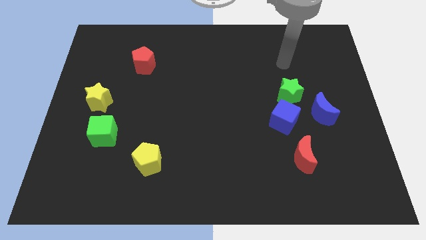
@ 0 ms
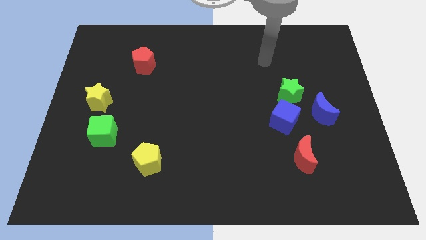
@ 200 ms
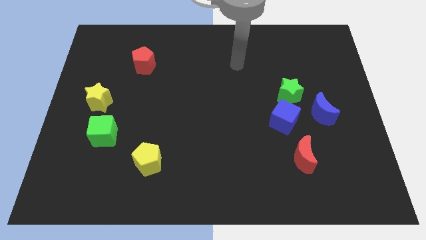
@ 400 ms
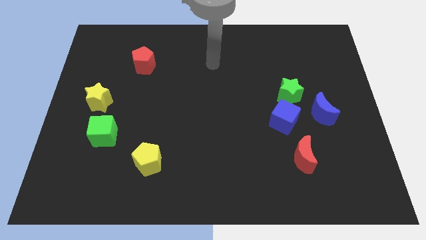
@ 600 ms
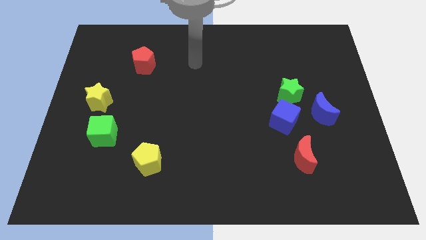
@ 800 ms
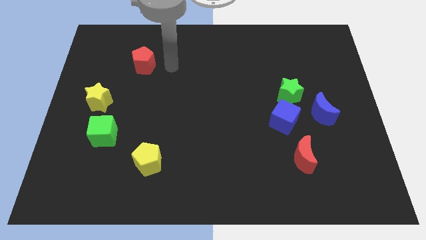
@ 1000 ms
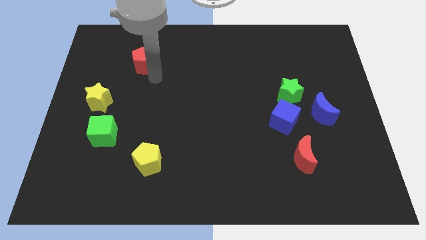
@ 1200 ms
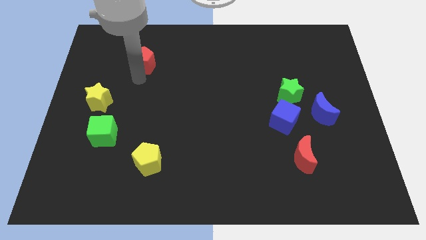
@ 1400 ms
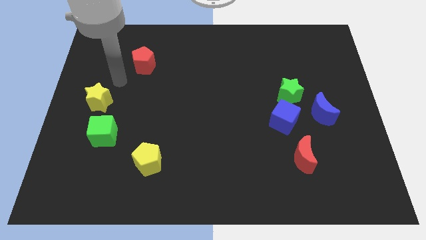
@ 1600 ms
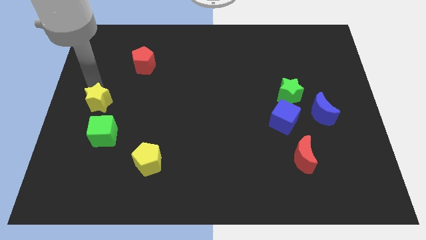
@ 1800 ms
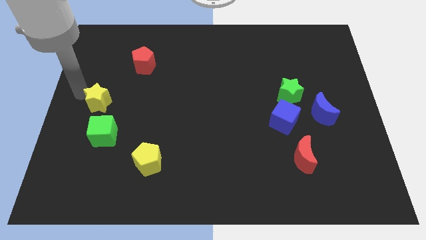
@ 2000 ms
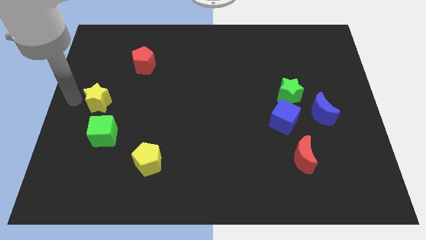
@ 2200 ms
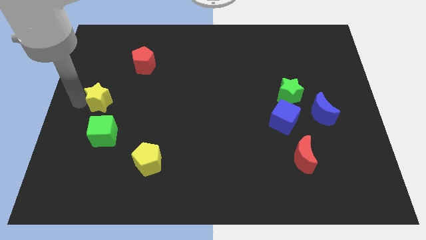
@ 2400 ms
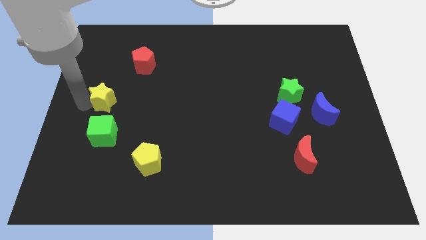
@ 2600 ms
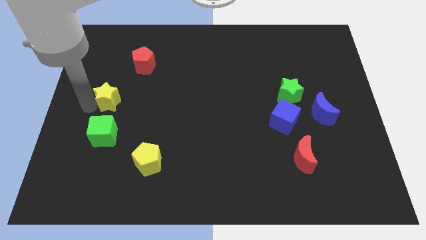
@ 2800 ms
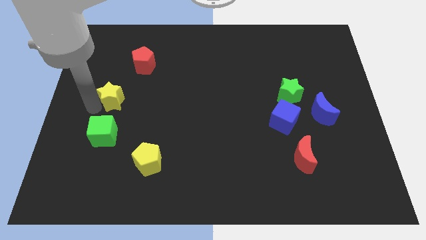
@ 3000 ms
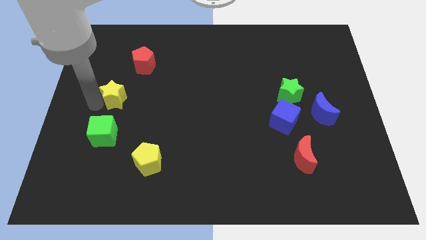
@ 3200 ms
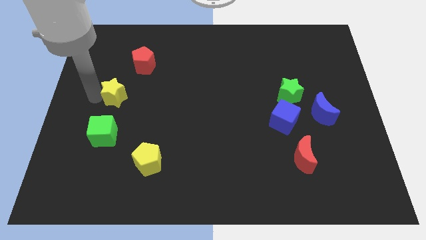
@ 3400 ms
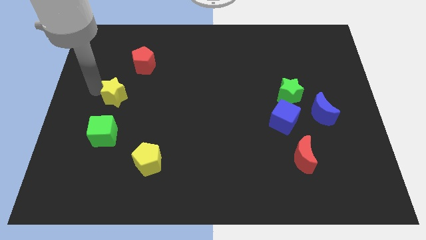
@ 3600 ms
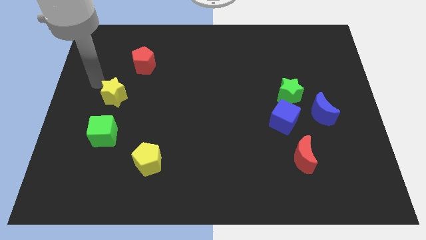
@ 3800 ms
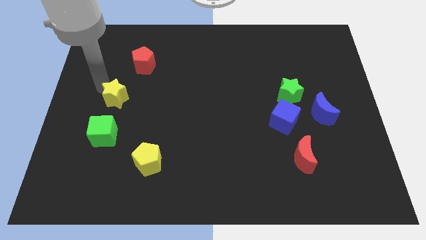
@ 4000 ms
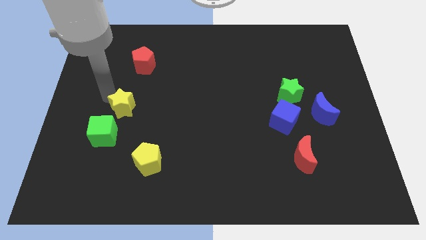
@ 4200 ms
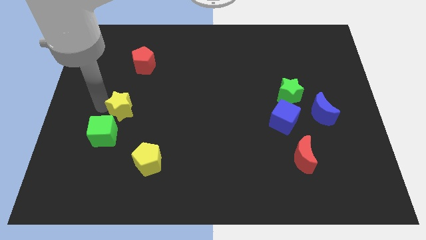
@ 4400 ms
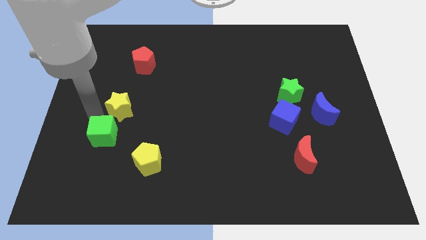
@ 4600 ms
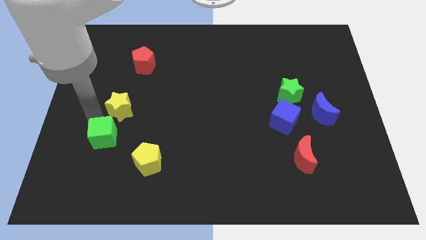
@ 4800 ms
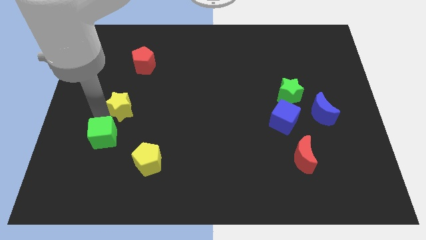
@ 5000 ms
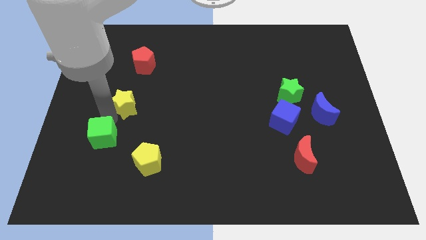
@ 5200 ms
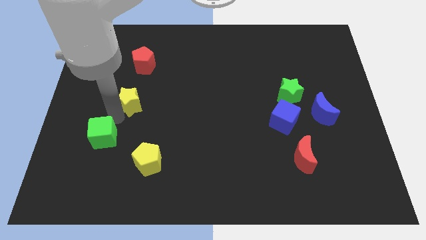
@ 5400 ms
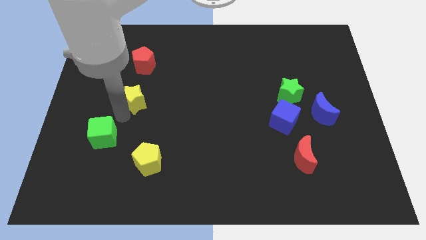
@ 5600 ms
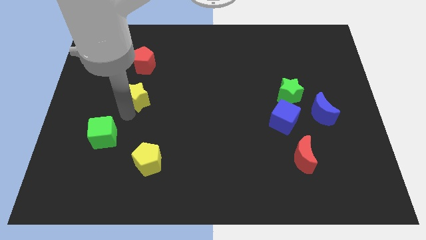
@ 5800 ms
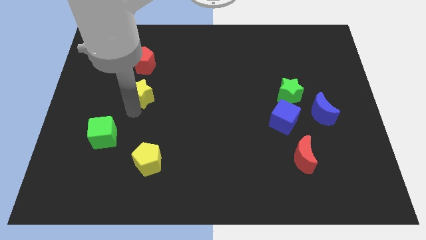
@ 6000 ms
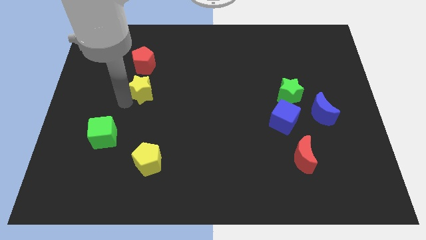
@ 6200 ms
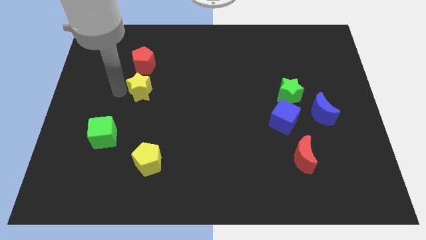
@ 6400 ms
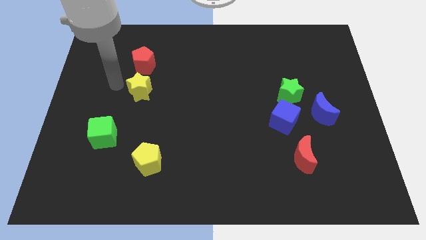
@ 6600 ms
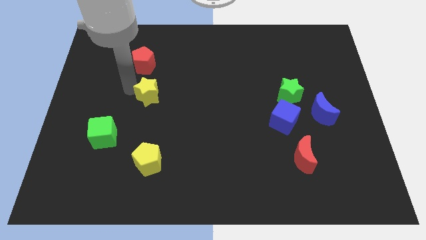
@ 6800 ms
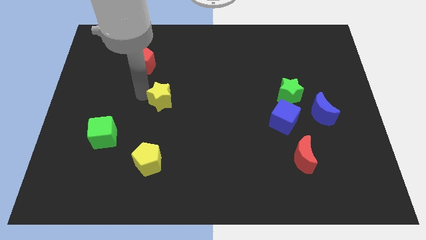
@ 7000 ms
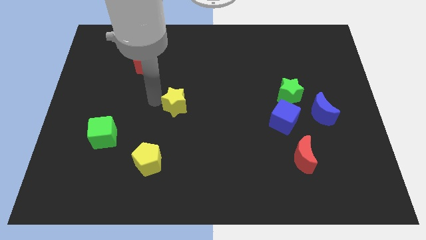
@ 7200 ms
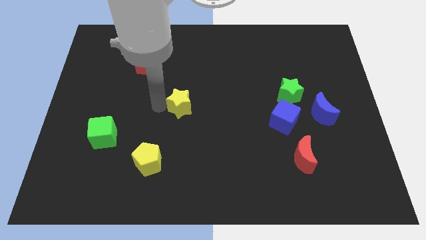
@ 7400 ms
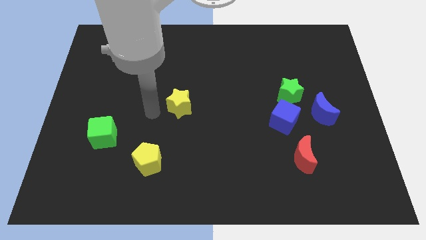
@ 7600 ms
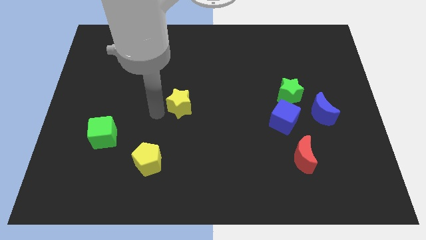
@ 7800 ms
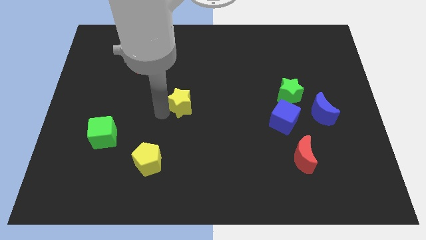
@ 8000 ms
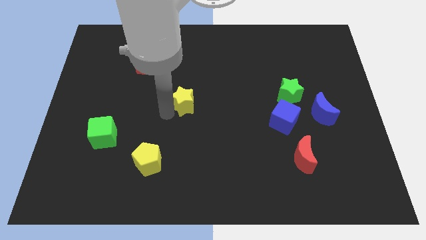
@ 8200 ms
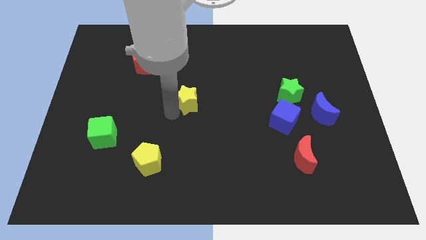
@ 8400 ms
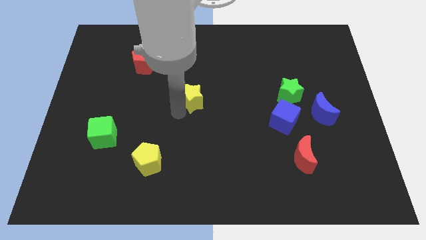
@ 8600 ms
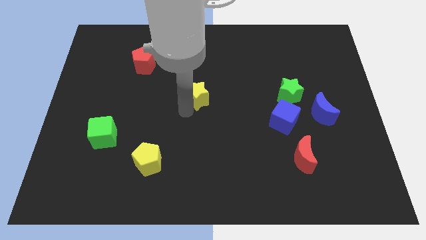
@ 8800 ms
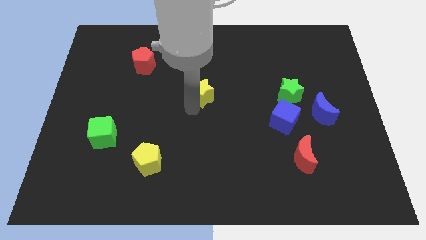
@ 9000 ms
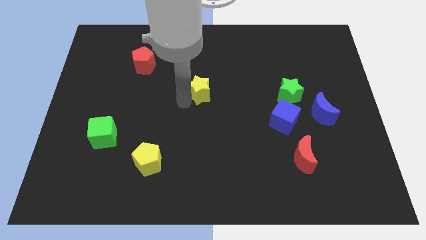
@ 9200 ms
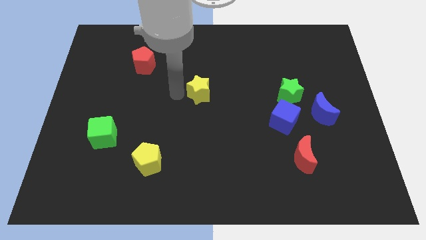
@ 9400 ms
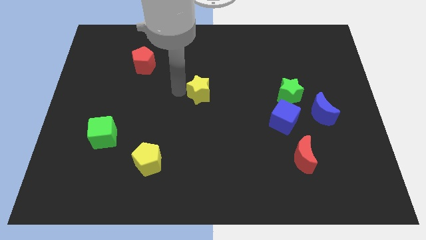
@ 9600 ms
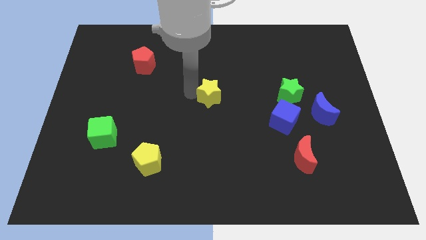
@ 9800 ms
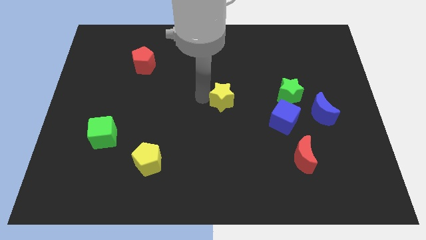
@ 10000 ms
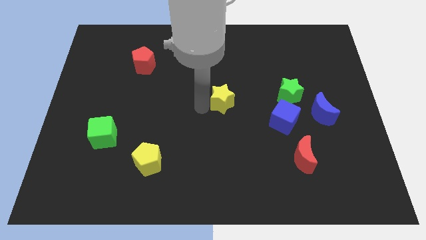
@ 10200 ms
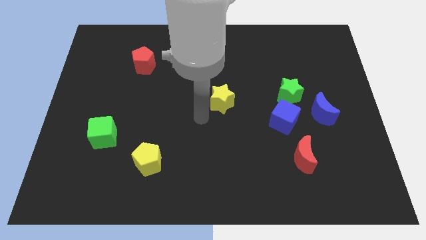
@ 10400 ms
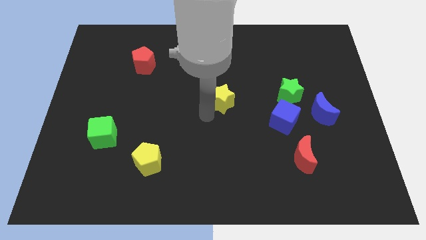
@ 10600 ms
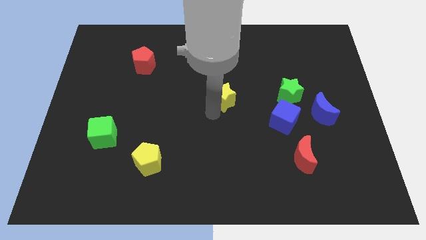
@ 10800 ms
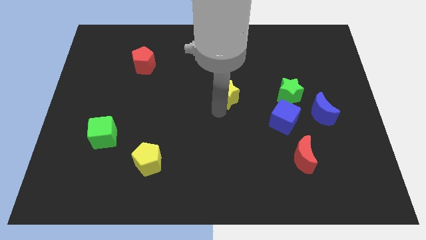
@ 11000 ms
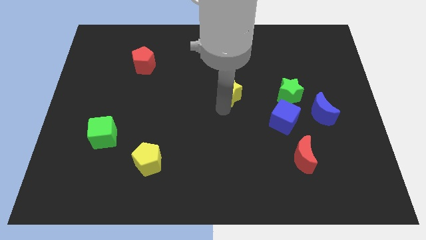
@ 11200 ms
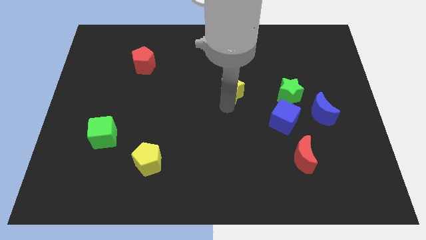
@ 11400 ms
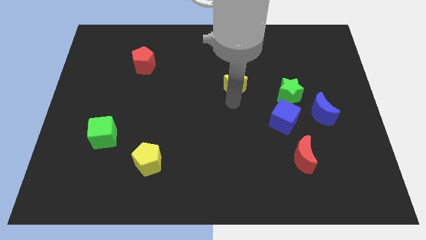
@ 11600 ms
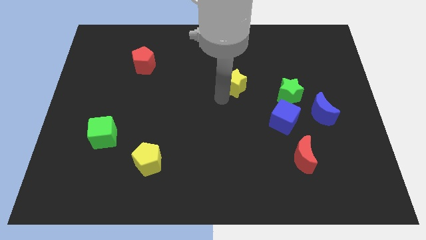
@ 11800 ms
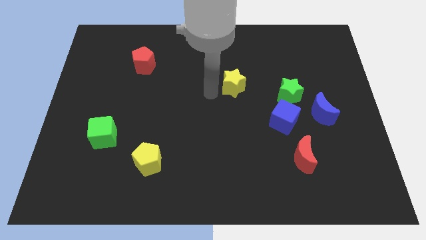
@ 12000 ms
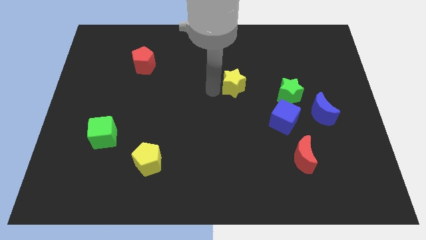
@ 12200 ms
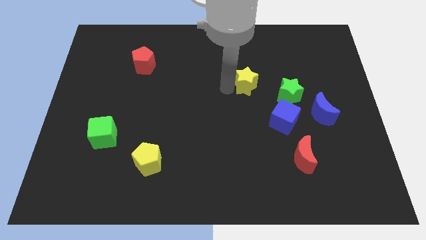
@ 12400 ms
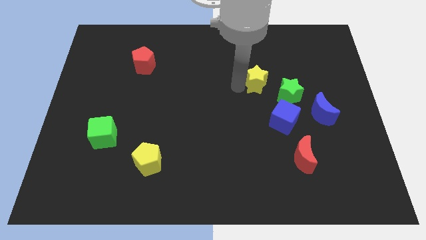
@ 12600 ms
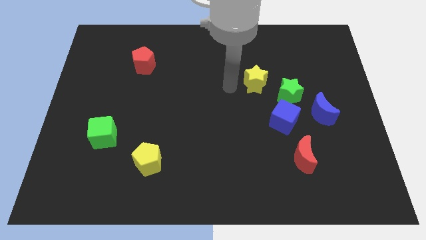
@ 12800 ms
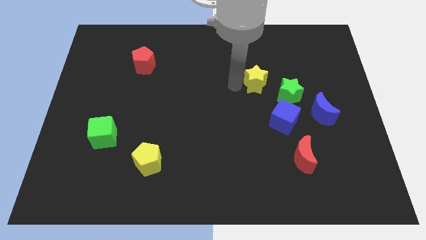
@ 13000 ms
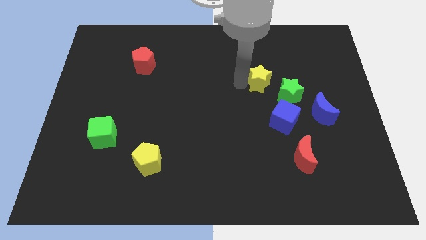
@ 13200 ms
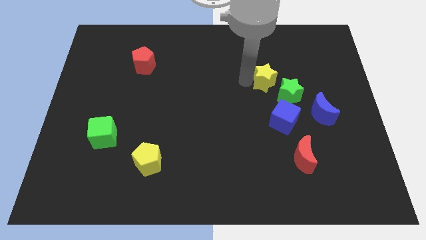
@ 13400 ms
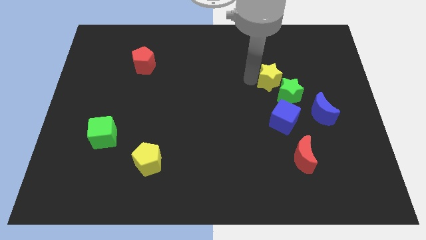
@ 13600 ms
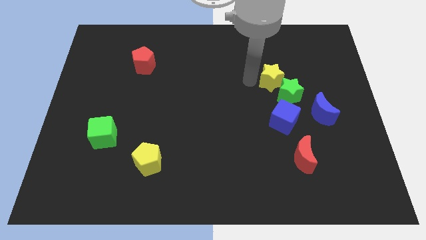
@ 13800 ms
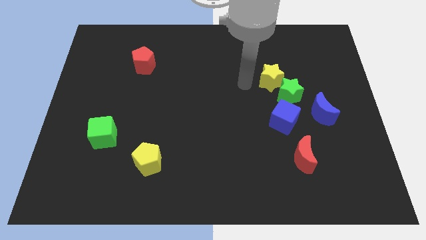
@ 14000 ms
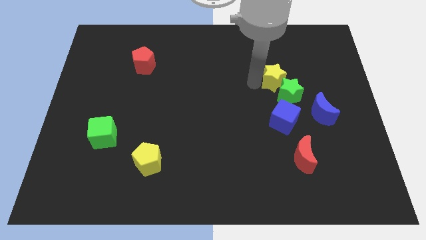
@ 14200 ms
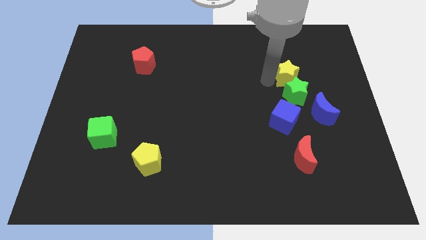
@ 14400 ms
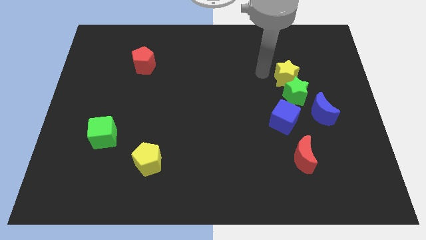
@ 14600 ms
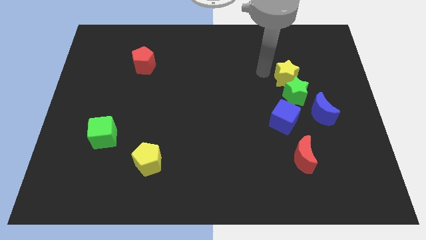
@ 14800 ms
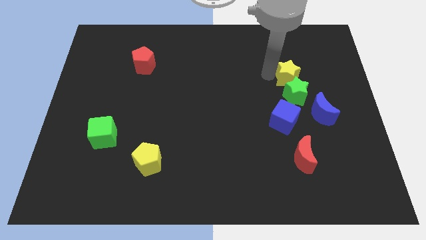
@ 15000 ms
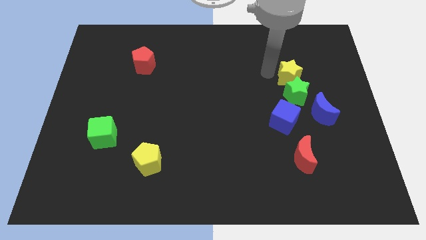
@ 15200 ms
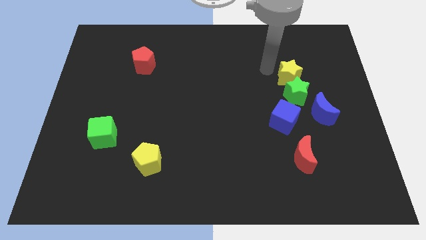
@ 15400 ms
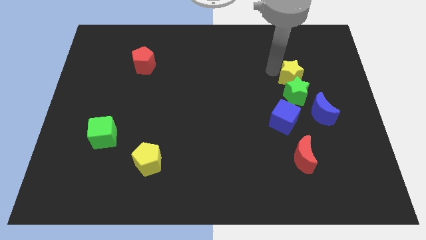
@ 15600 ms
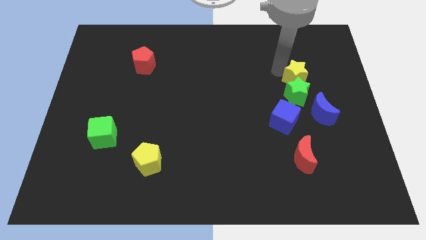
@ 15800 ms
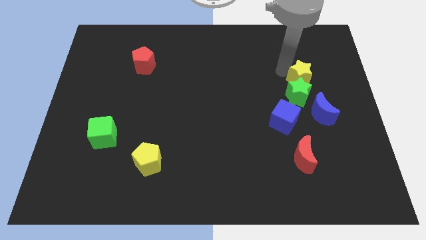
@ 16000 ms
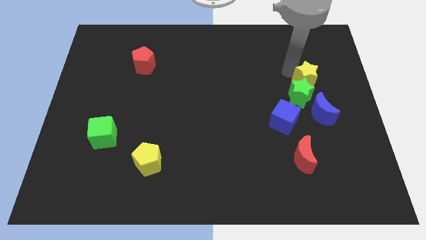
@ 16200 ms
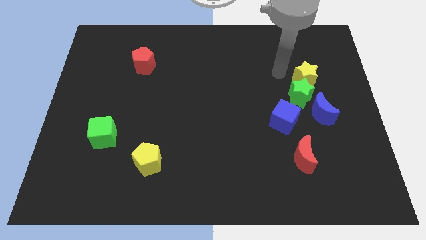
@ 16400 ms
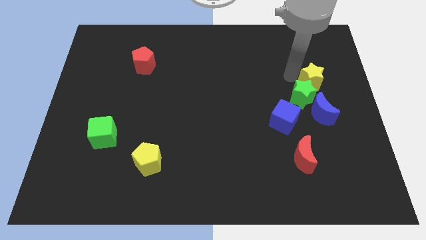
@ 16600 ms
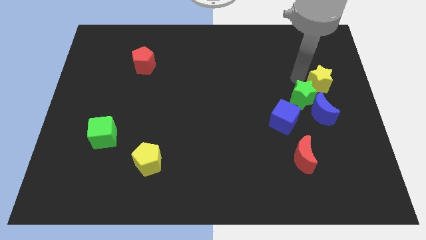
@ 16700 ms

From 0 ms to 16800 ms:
push the yellow star to the right side of the board
